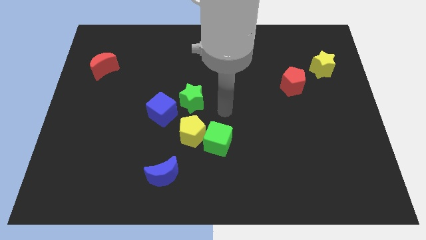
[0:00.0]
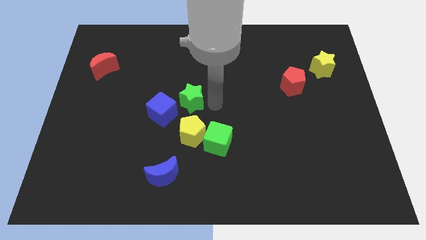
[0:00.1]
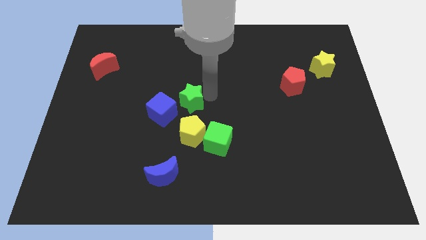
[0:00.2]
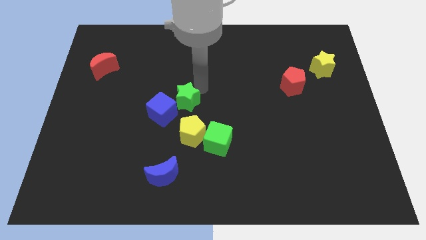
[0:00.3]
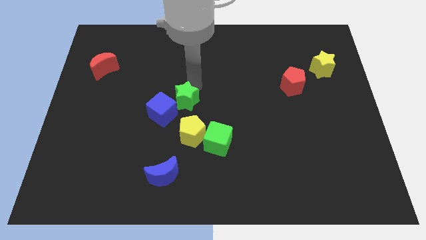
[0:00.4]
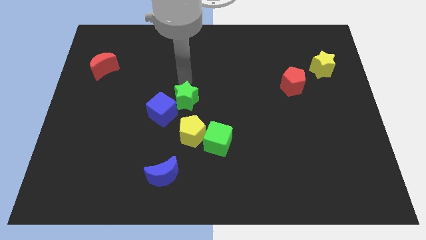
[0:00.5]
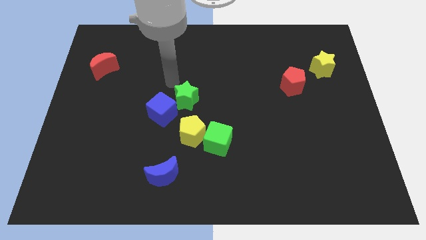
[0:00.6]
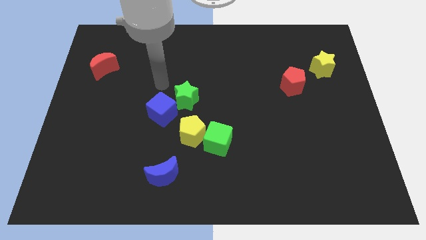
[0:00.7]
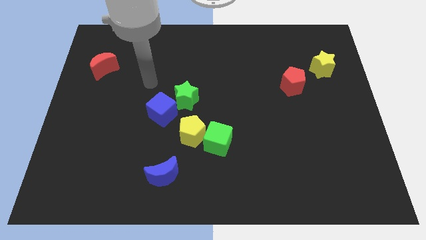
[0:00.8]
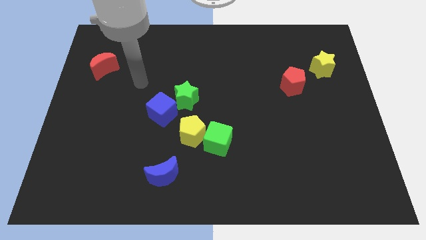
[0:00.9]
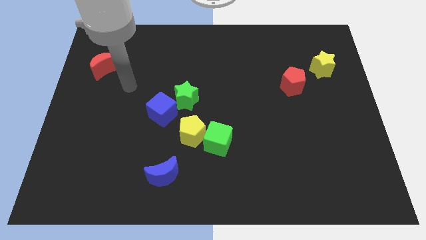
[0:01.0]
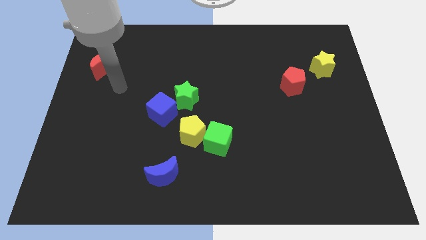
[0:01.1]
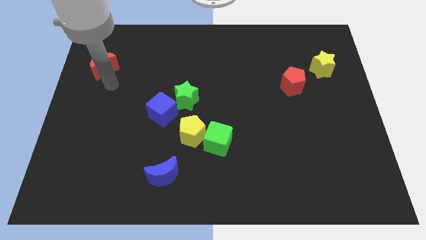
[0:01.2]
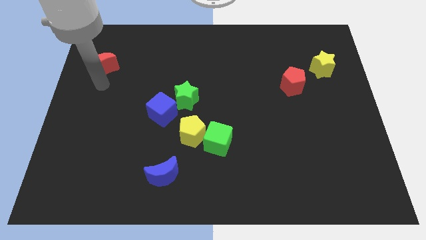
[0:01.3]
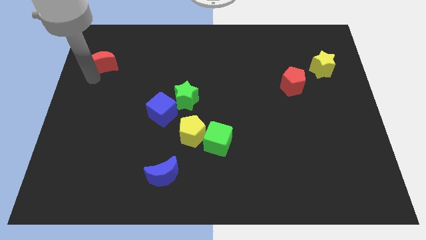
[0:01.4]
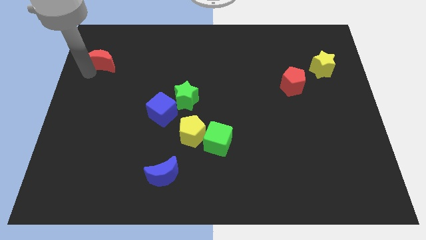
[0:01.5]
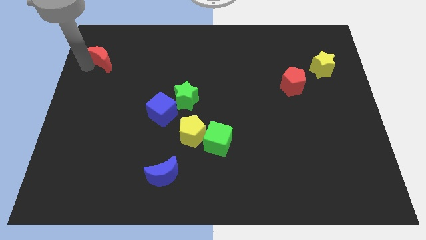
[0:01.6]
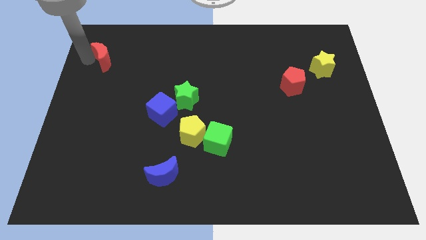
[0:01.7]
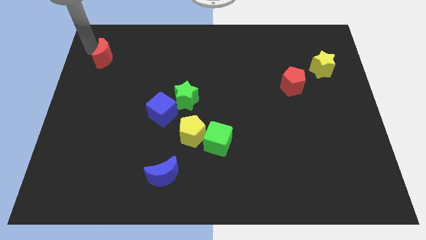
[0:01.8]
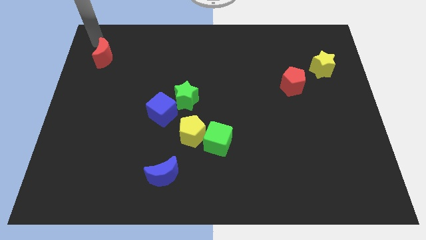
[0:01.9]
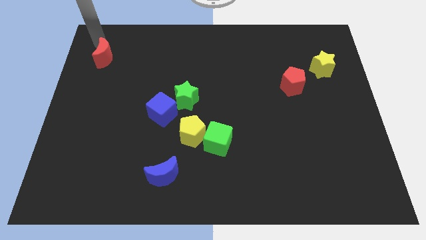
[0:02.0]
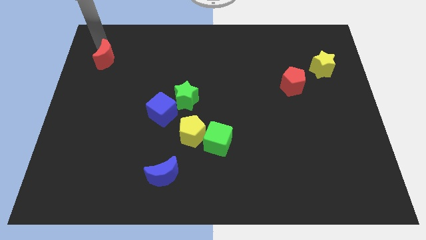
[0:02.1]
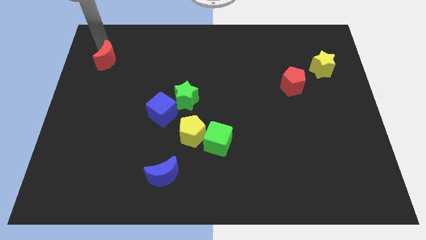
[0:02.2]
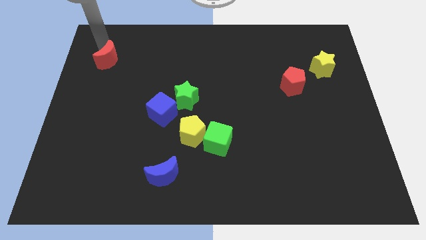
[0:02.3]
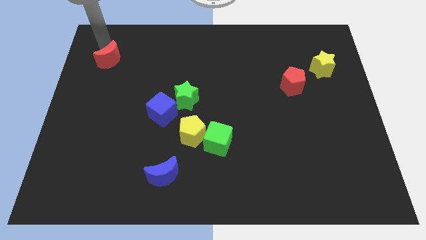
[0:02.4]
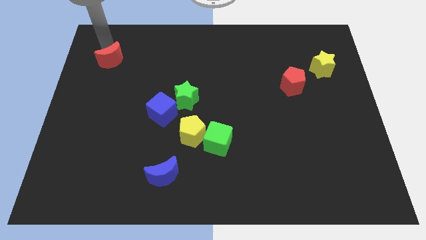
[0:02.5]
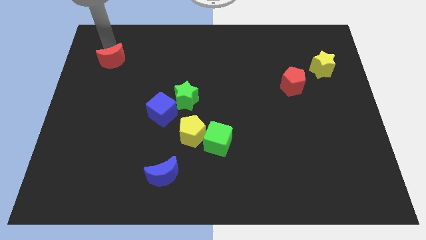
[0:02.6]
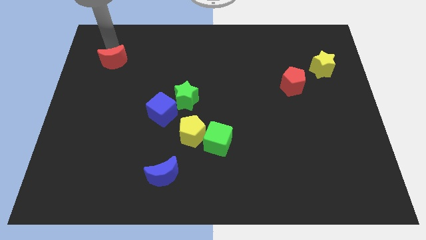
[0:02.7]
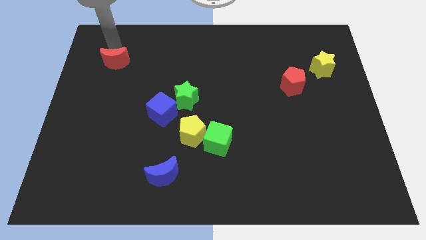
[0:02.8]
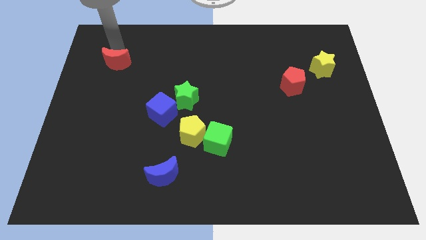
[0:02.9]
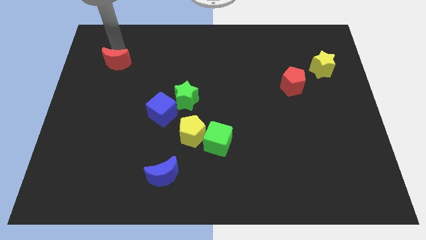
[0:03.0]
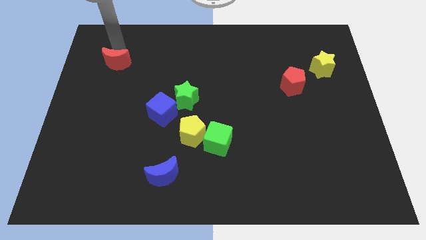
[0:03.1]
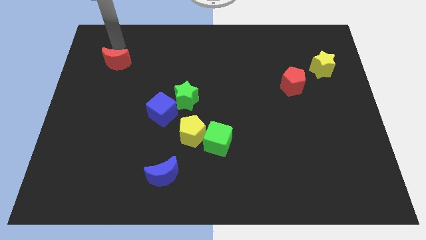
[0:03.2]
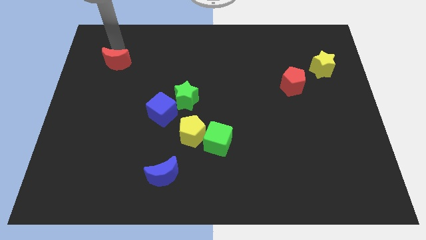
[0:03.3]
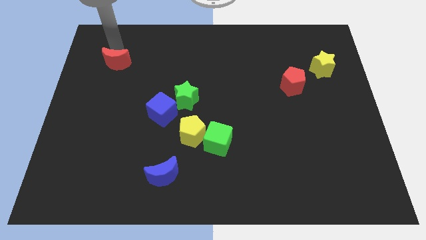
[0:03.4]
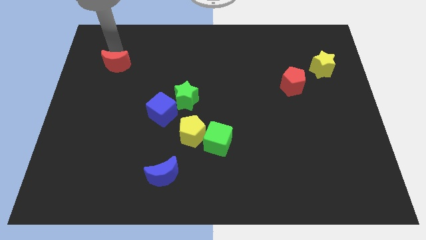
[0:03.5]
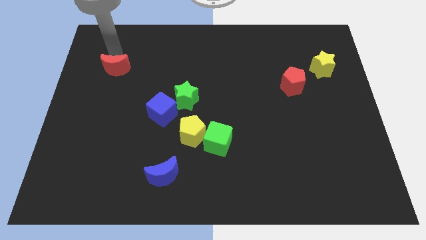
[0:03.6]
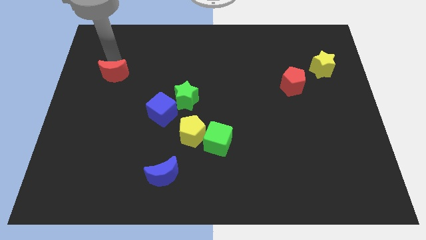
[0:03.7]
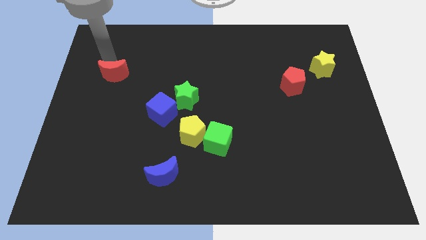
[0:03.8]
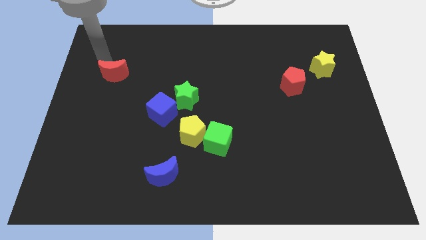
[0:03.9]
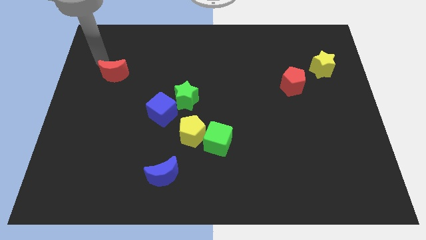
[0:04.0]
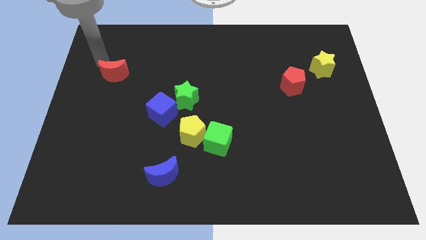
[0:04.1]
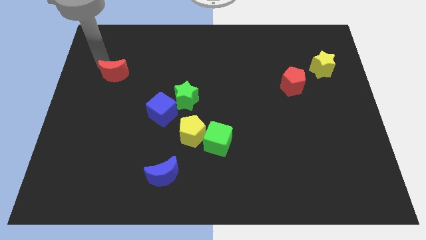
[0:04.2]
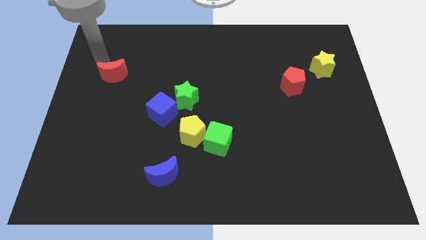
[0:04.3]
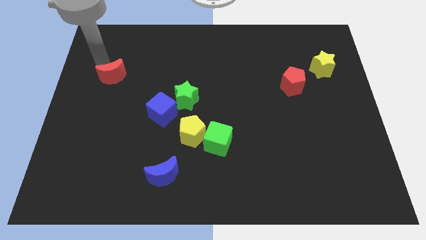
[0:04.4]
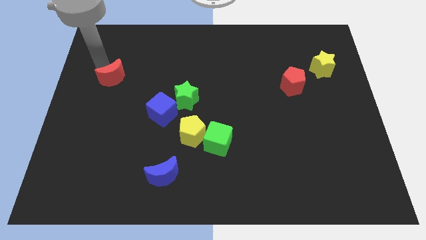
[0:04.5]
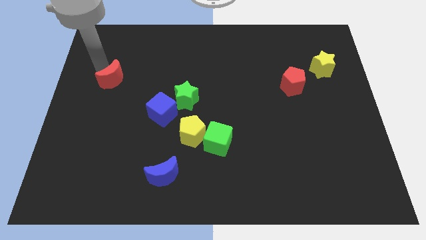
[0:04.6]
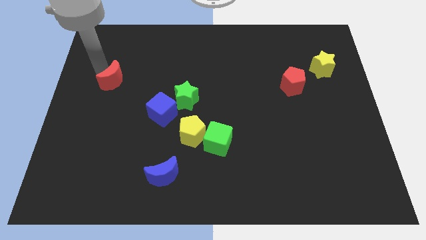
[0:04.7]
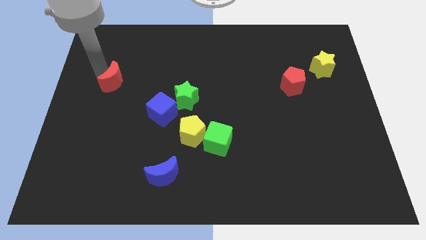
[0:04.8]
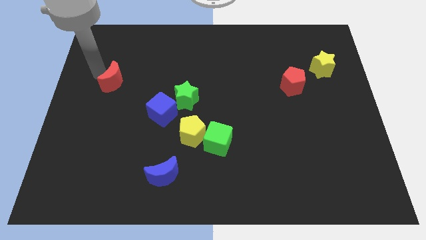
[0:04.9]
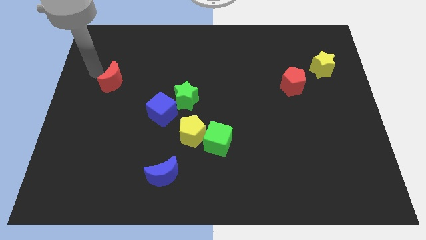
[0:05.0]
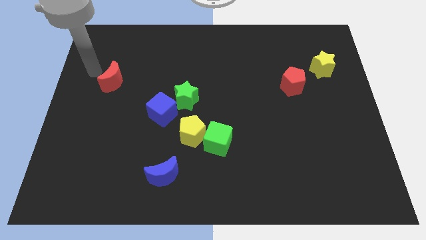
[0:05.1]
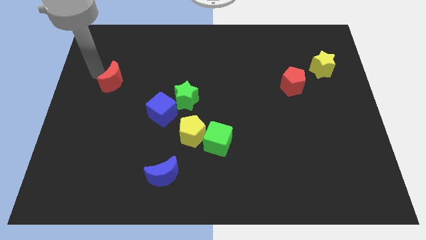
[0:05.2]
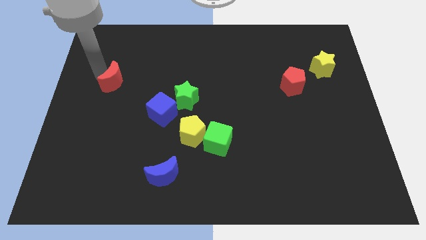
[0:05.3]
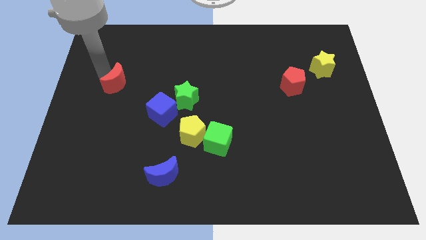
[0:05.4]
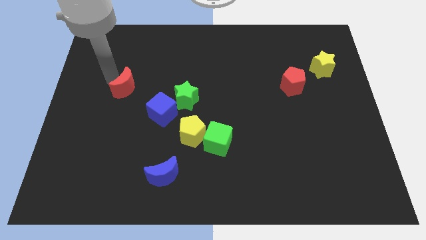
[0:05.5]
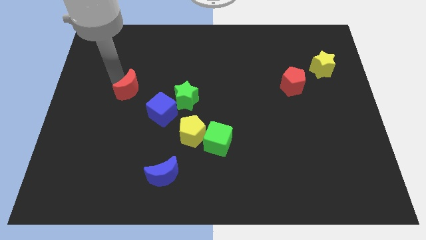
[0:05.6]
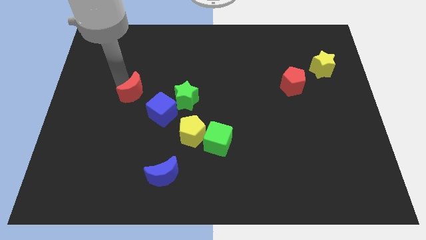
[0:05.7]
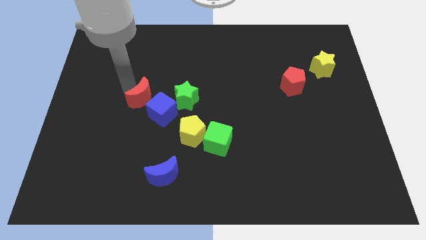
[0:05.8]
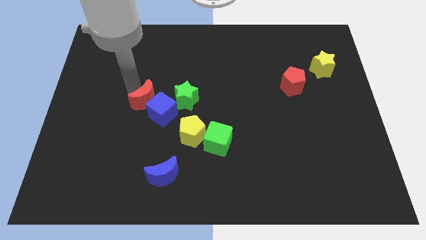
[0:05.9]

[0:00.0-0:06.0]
move the red moon towards the blue cube

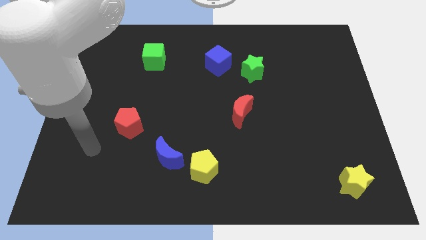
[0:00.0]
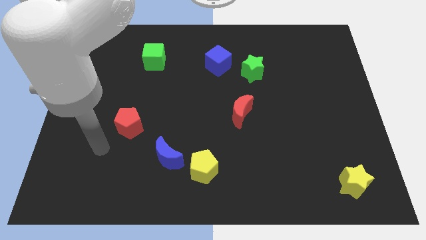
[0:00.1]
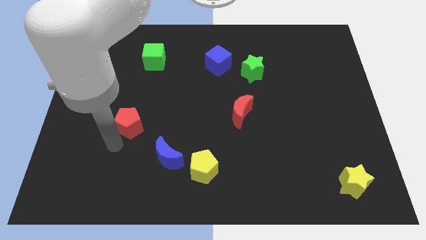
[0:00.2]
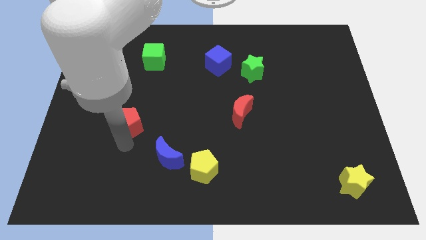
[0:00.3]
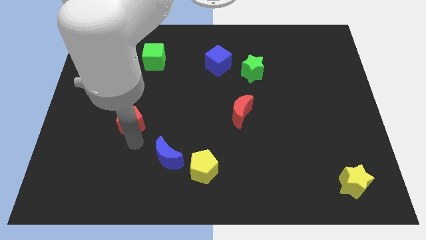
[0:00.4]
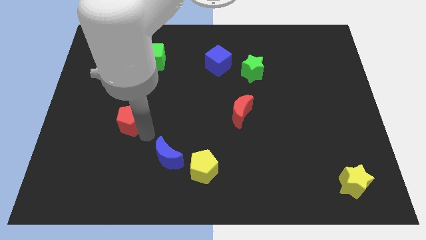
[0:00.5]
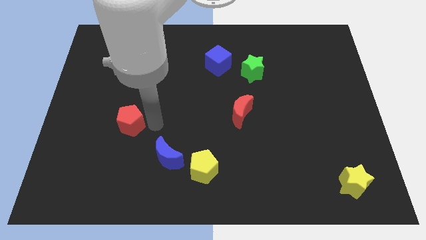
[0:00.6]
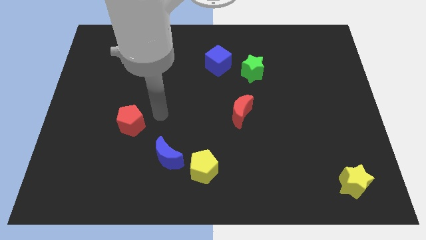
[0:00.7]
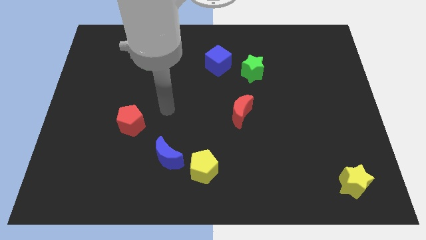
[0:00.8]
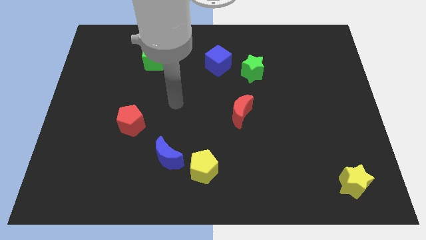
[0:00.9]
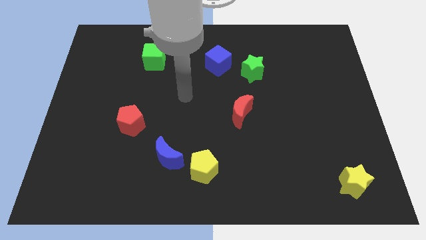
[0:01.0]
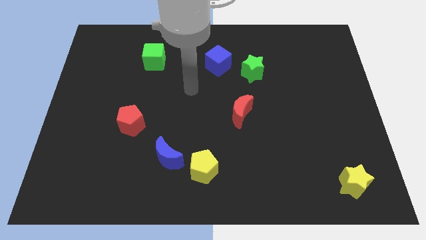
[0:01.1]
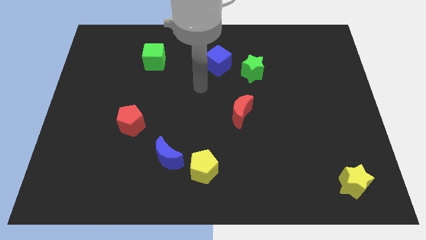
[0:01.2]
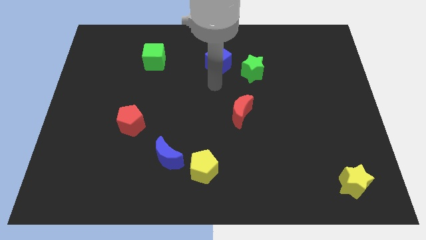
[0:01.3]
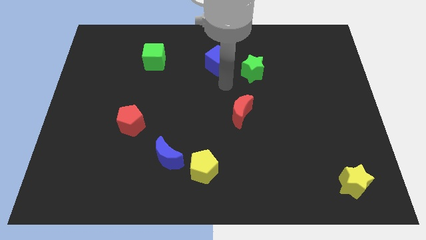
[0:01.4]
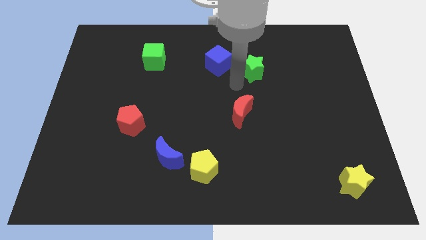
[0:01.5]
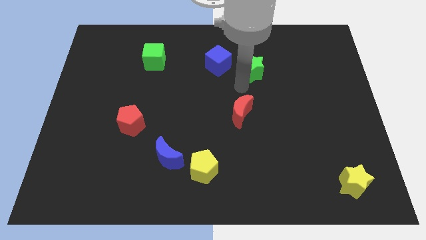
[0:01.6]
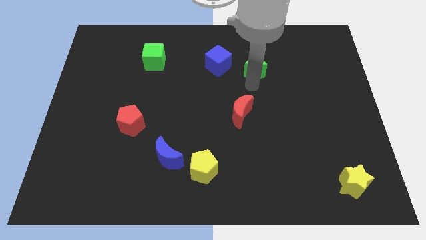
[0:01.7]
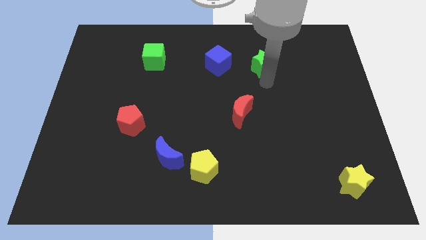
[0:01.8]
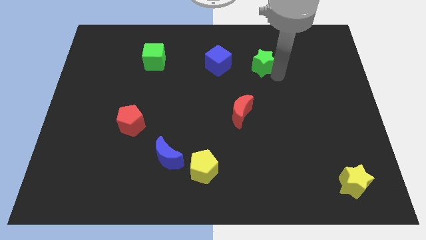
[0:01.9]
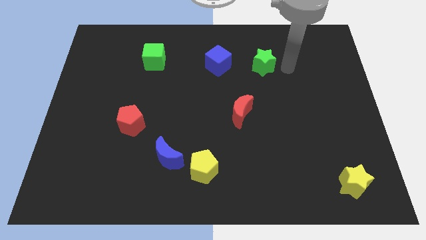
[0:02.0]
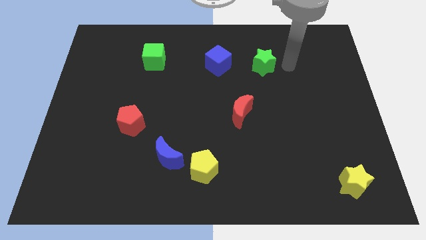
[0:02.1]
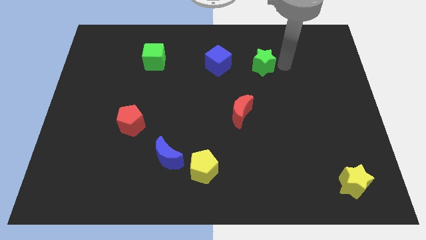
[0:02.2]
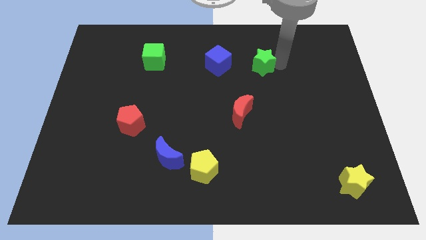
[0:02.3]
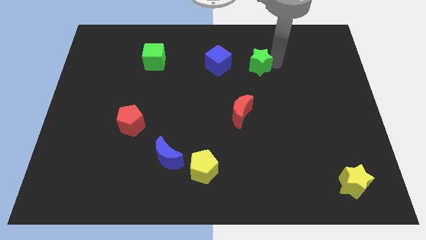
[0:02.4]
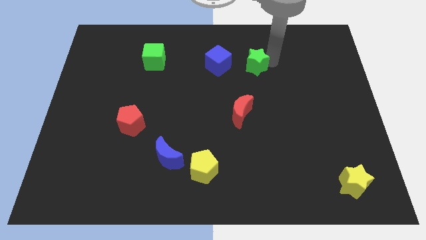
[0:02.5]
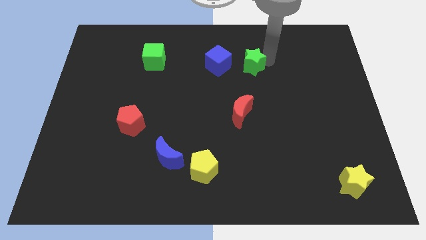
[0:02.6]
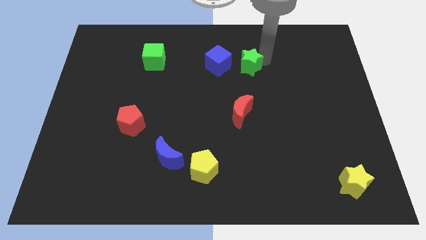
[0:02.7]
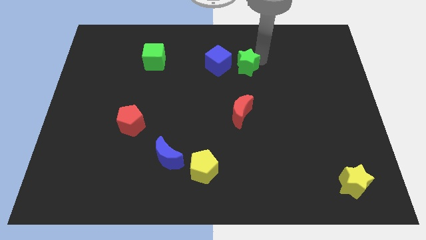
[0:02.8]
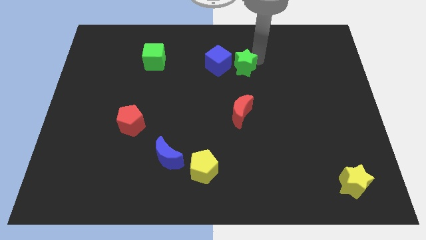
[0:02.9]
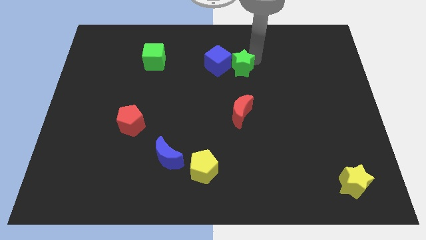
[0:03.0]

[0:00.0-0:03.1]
push the green star to the blue cube
